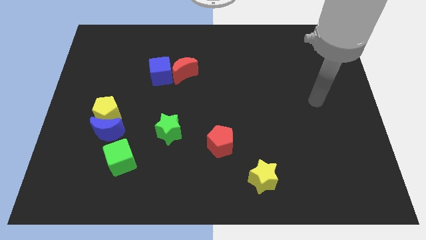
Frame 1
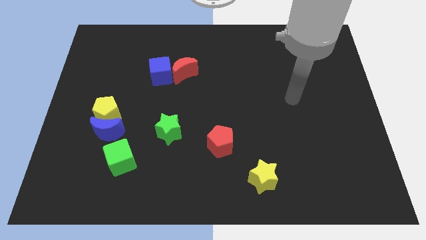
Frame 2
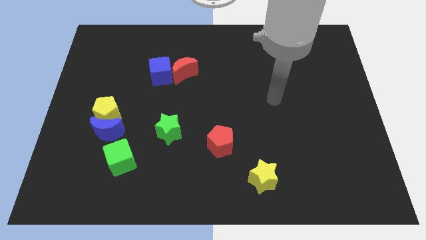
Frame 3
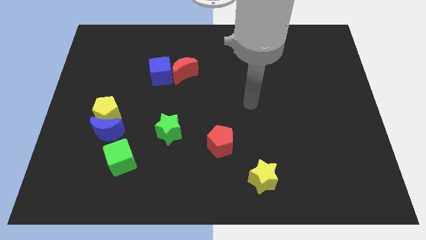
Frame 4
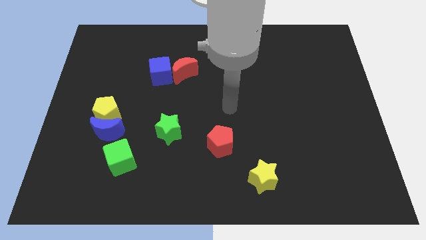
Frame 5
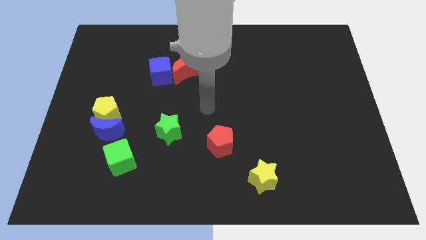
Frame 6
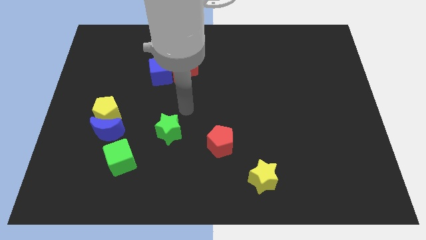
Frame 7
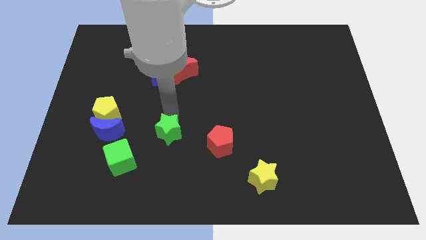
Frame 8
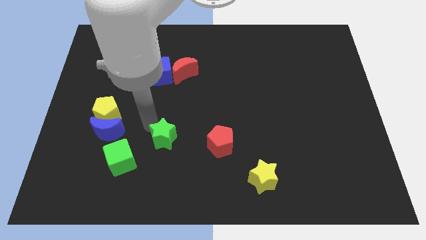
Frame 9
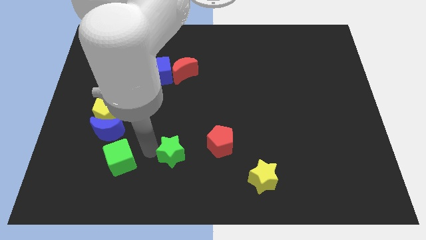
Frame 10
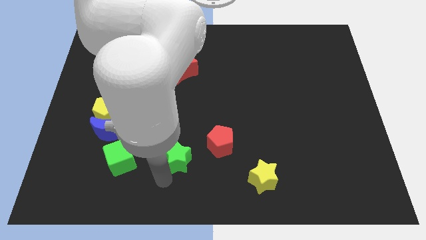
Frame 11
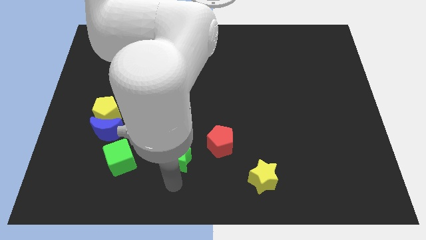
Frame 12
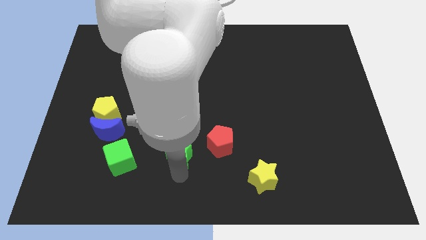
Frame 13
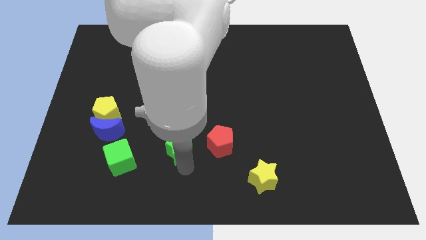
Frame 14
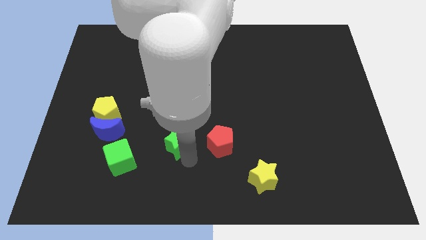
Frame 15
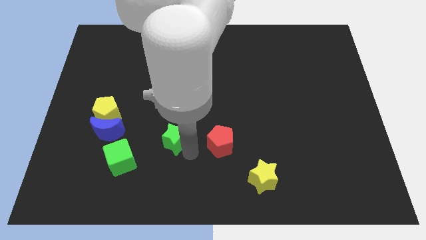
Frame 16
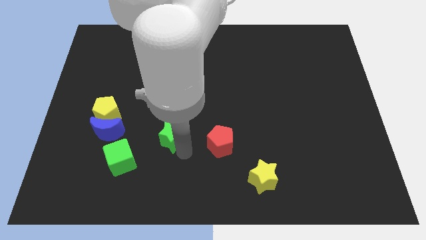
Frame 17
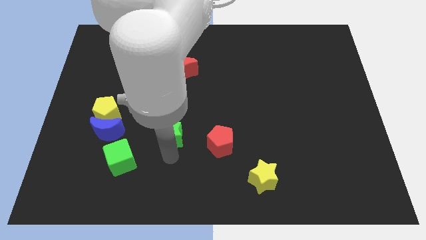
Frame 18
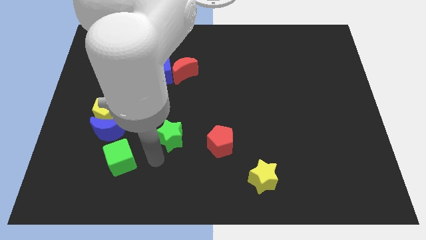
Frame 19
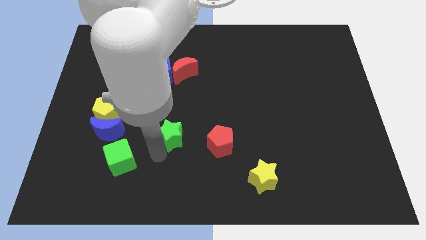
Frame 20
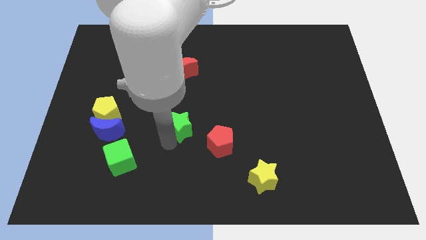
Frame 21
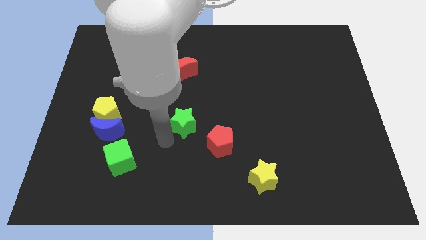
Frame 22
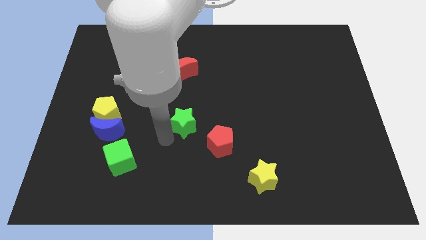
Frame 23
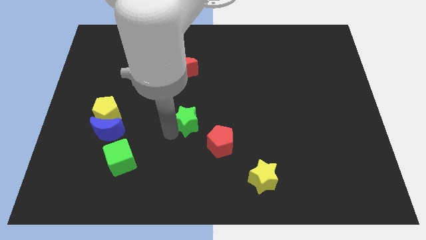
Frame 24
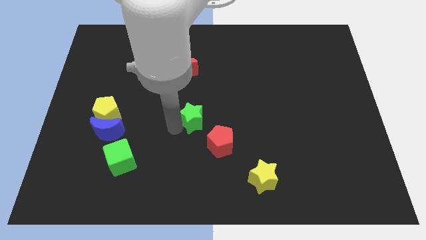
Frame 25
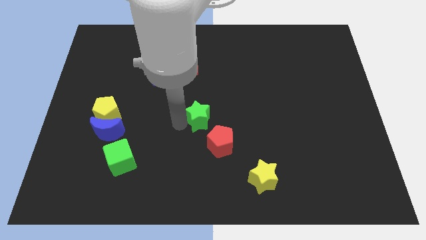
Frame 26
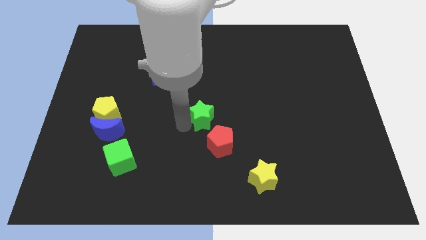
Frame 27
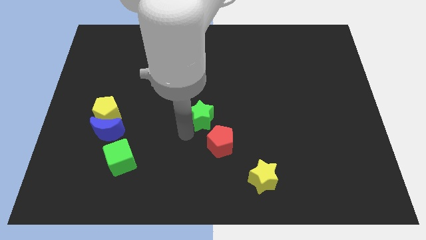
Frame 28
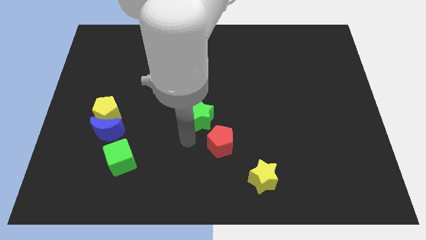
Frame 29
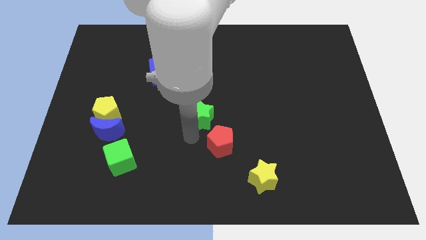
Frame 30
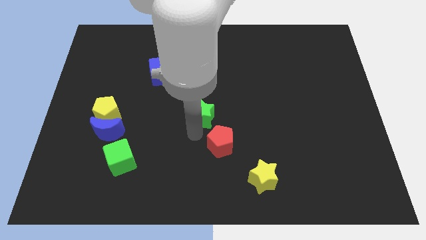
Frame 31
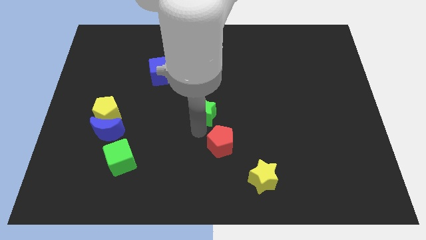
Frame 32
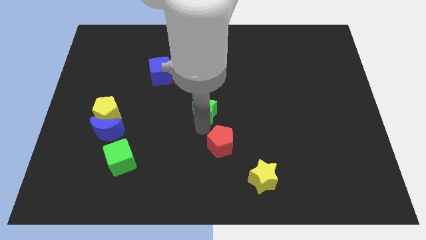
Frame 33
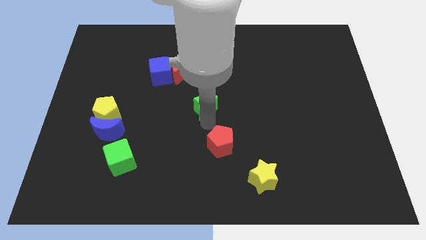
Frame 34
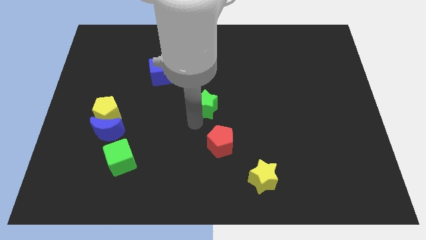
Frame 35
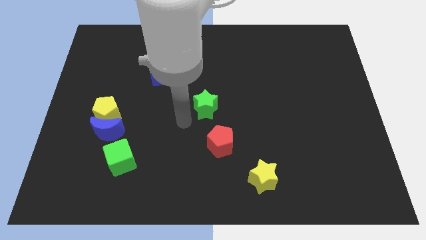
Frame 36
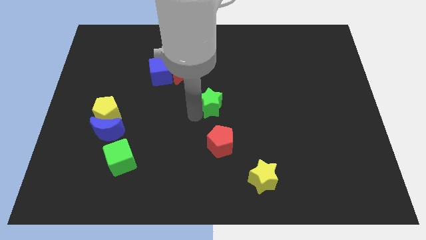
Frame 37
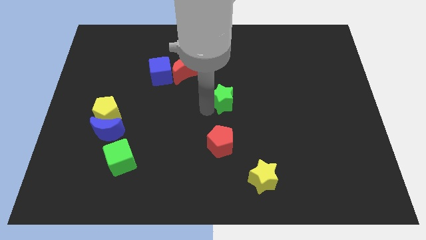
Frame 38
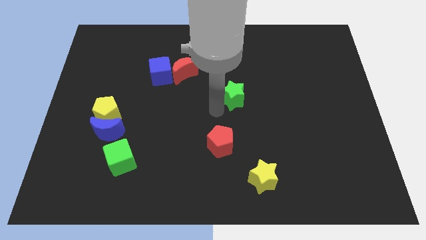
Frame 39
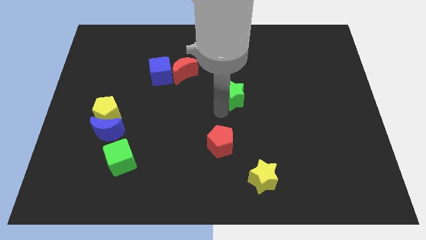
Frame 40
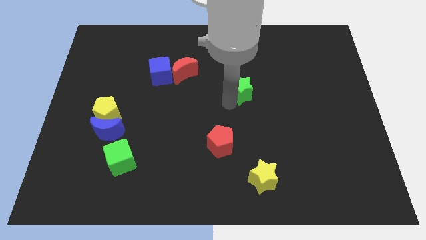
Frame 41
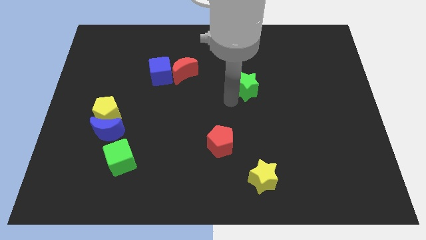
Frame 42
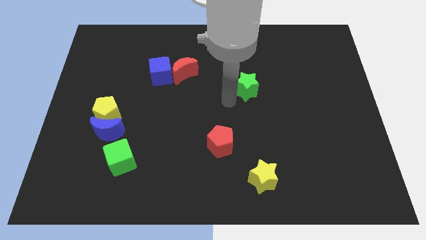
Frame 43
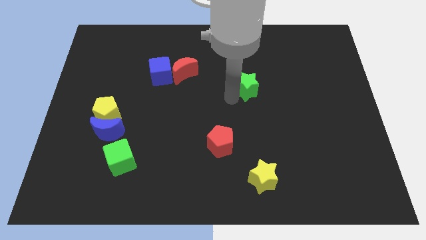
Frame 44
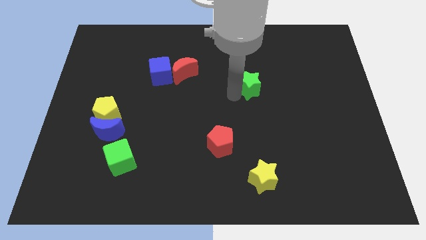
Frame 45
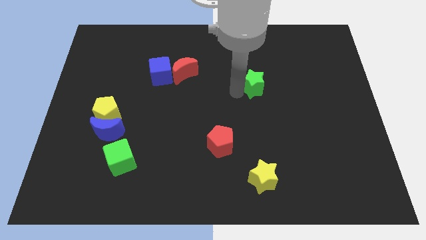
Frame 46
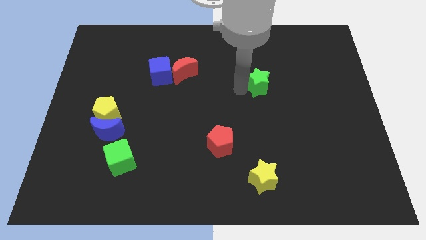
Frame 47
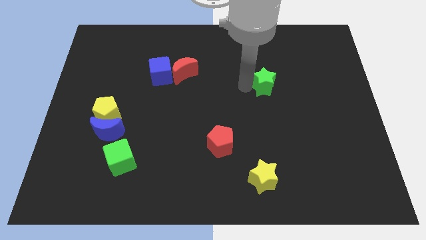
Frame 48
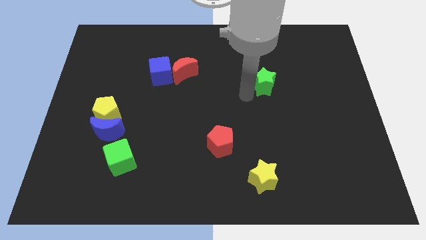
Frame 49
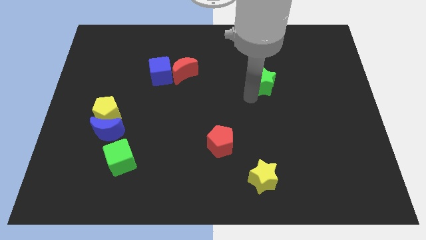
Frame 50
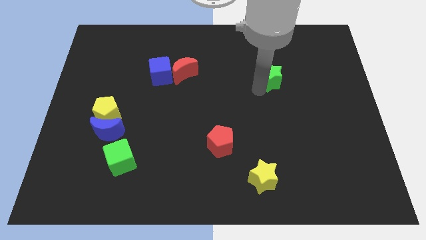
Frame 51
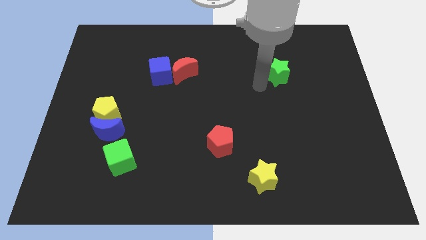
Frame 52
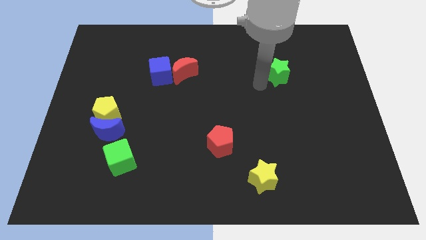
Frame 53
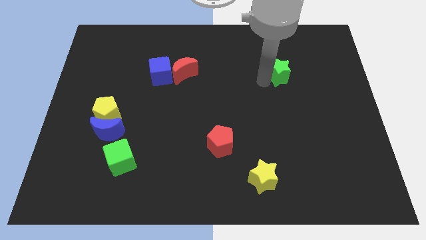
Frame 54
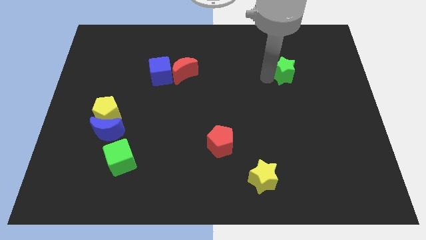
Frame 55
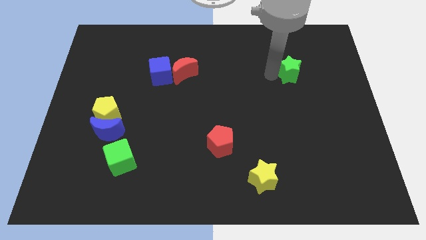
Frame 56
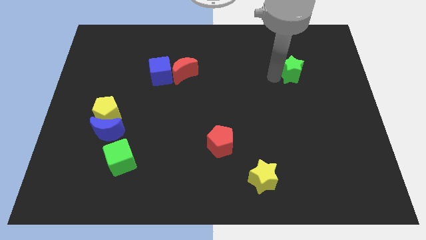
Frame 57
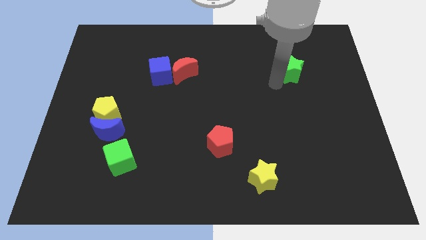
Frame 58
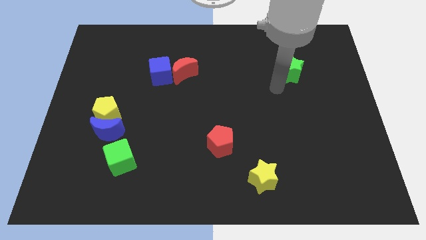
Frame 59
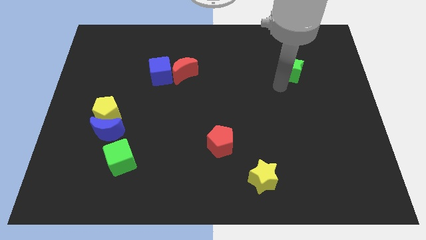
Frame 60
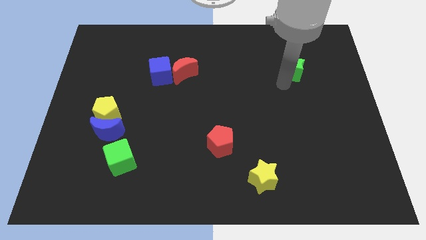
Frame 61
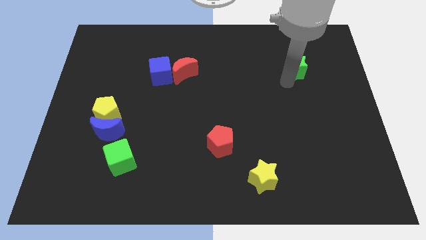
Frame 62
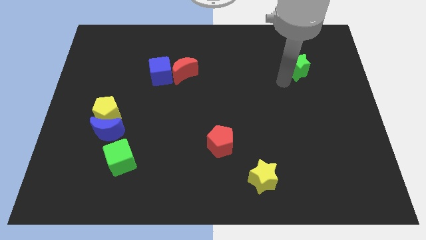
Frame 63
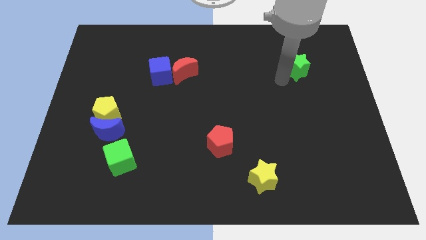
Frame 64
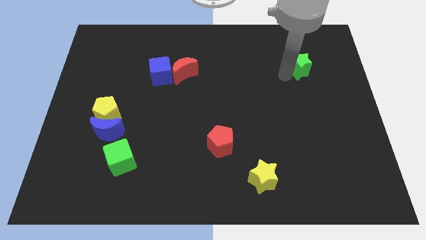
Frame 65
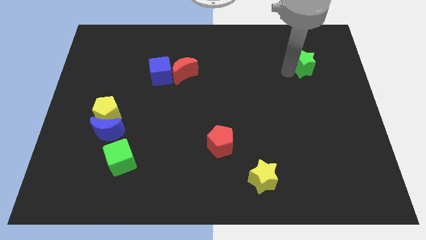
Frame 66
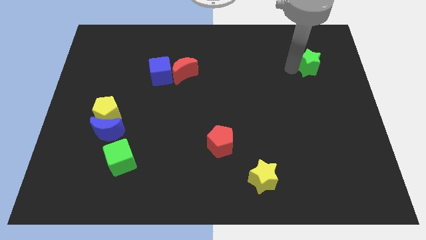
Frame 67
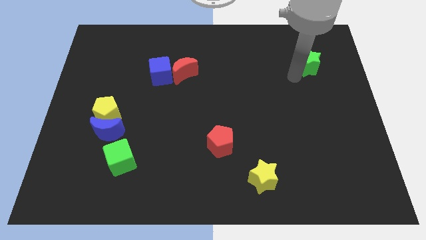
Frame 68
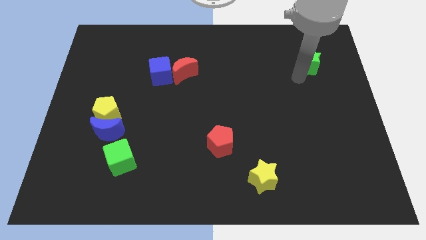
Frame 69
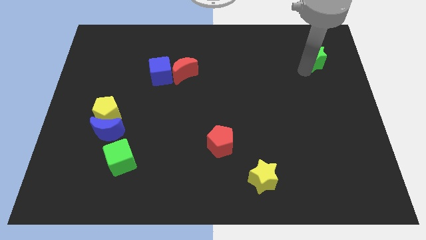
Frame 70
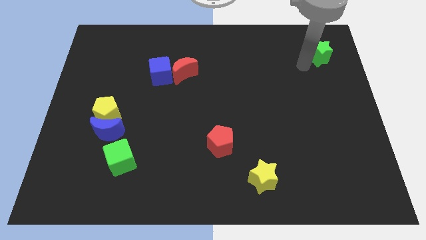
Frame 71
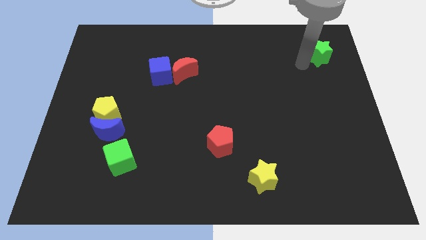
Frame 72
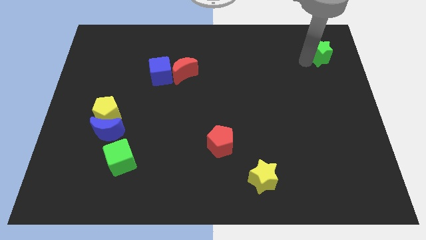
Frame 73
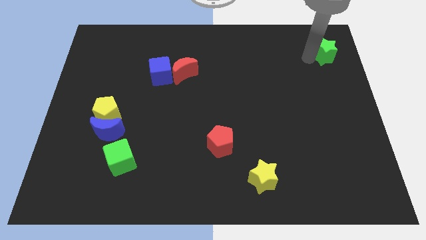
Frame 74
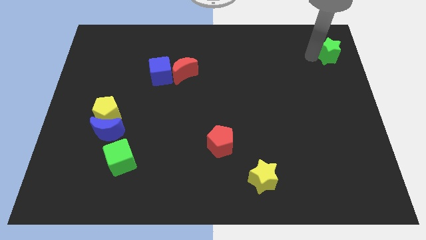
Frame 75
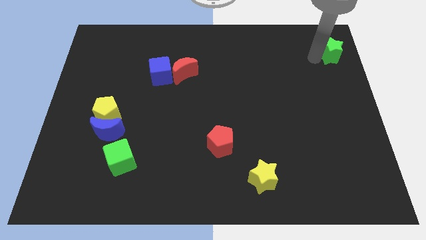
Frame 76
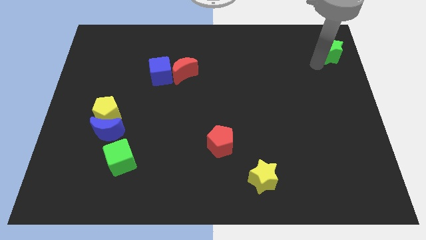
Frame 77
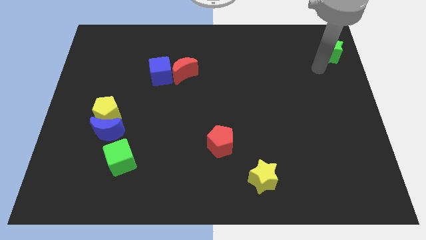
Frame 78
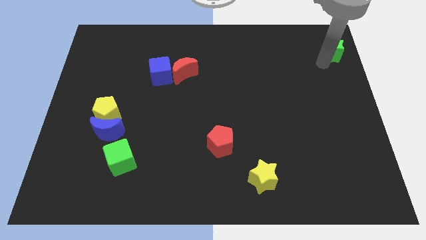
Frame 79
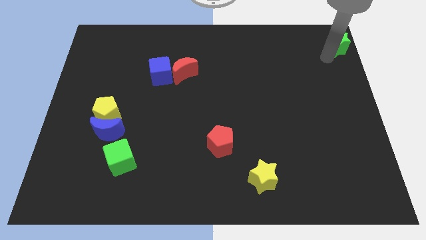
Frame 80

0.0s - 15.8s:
move the green star to the top right
